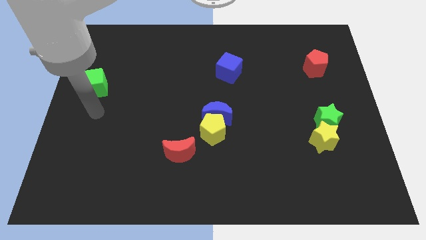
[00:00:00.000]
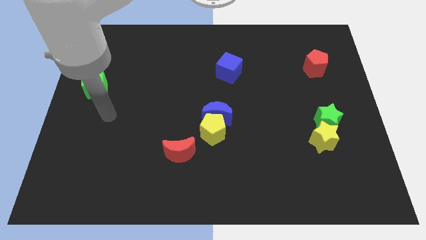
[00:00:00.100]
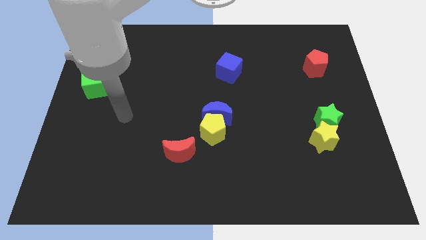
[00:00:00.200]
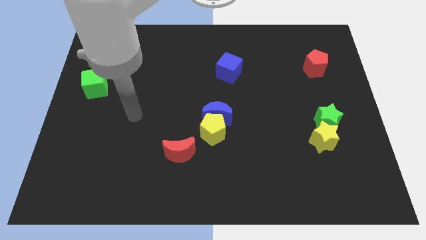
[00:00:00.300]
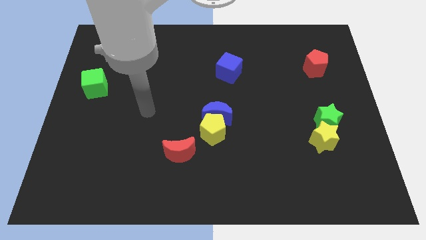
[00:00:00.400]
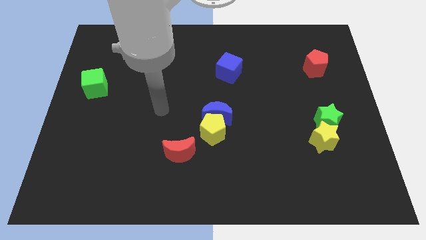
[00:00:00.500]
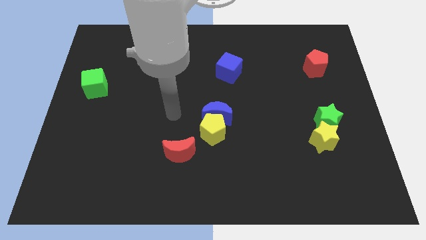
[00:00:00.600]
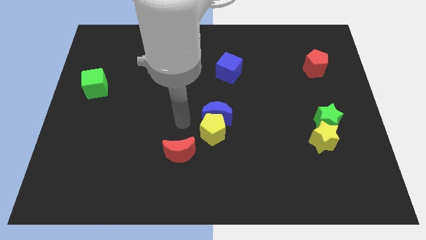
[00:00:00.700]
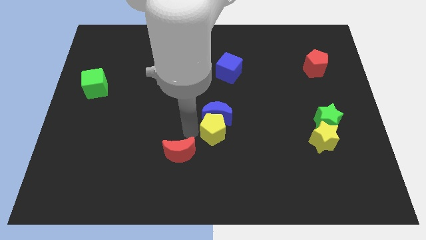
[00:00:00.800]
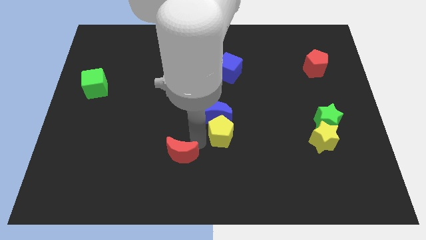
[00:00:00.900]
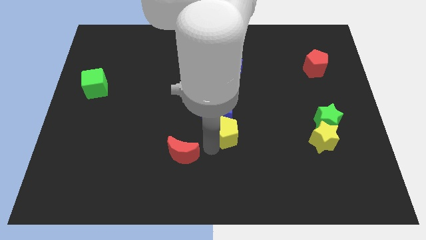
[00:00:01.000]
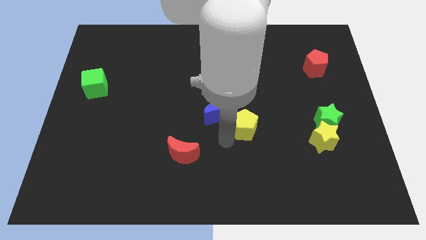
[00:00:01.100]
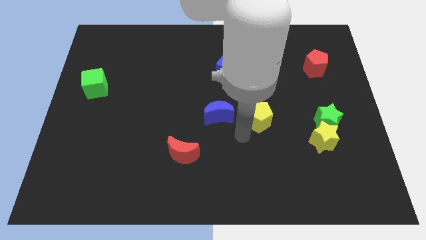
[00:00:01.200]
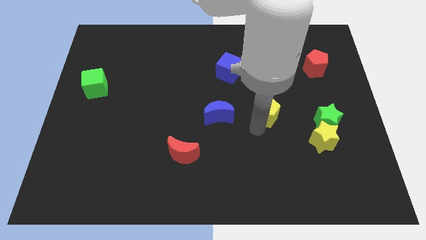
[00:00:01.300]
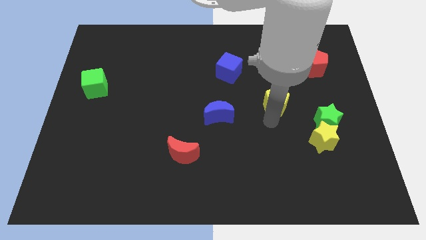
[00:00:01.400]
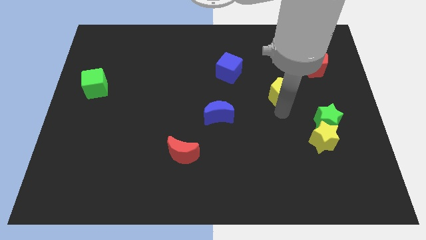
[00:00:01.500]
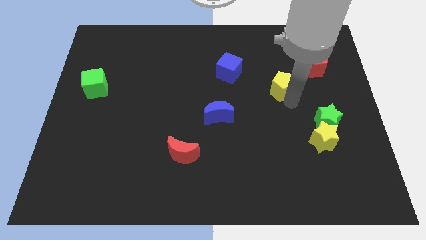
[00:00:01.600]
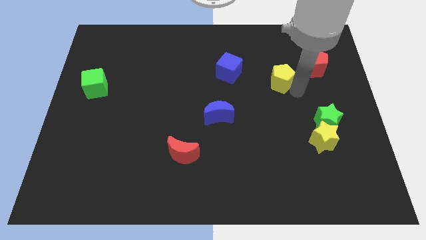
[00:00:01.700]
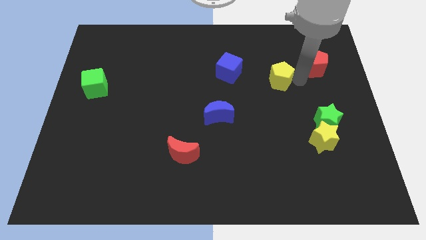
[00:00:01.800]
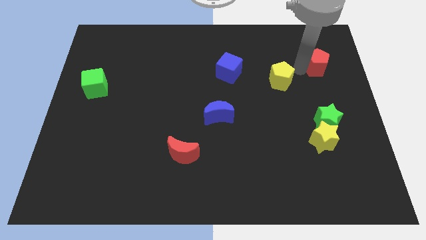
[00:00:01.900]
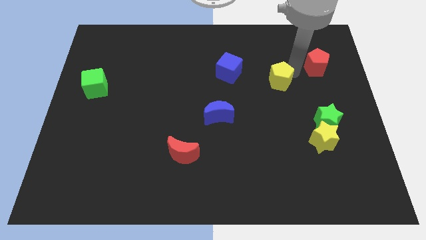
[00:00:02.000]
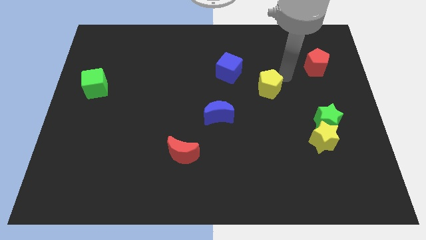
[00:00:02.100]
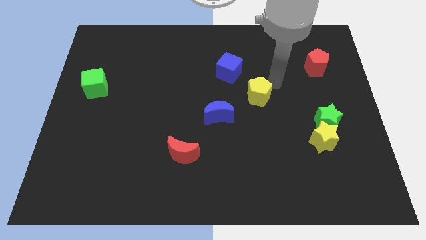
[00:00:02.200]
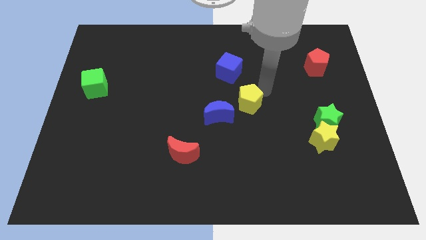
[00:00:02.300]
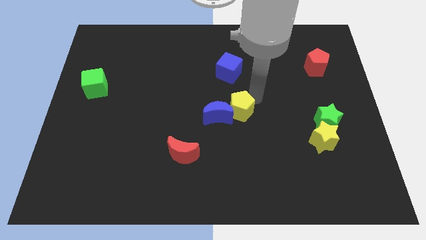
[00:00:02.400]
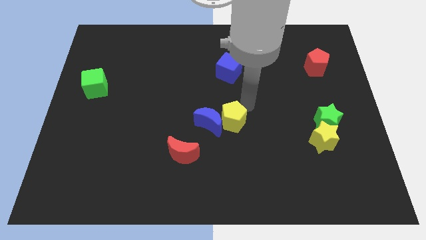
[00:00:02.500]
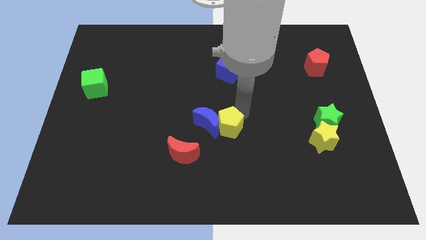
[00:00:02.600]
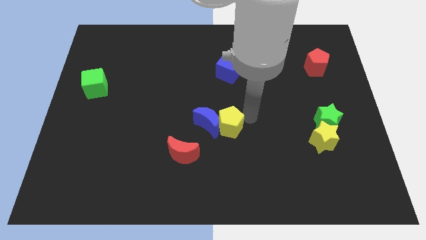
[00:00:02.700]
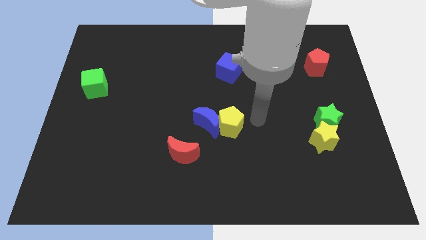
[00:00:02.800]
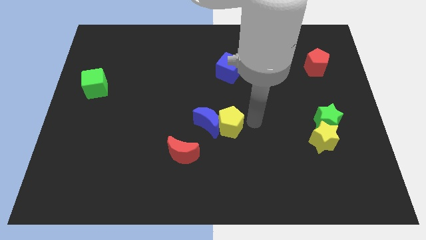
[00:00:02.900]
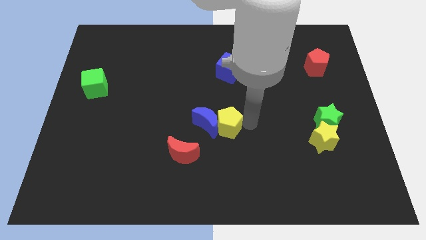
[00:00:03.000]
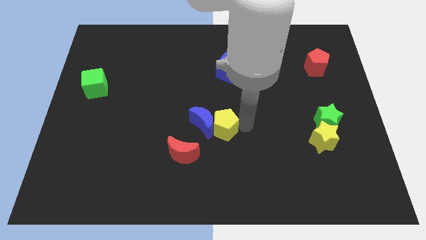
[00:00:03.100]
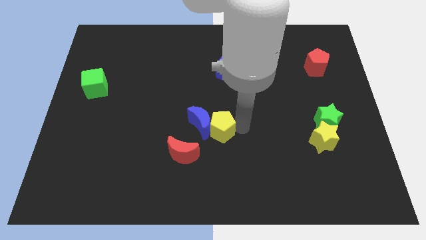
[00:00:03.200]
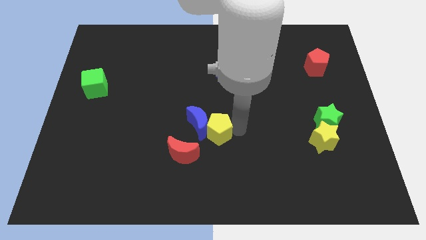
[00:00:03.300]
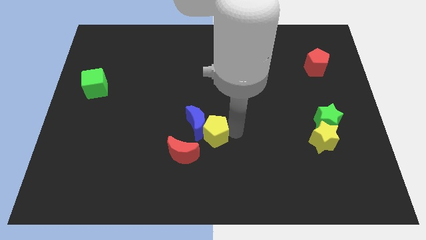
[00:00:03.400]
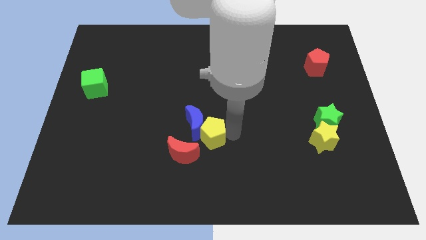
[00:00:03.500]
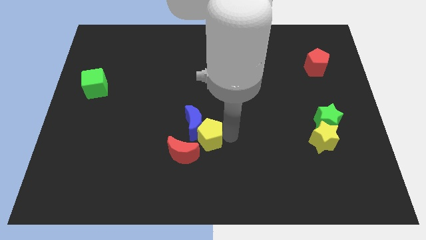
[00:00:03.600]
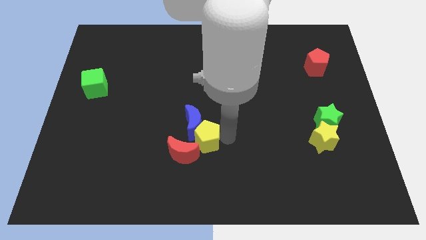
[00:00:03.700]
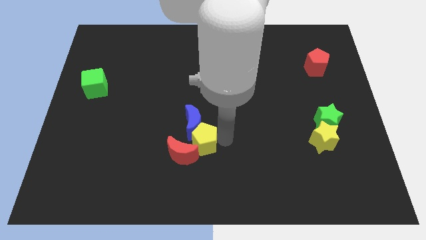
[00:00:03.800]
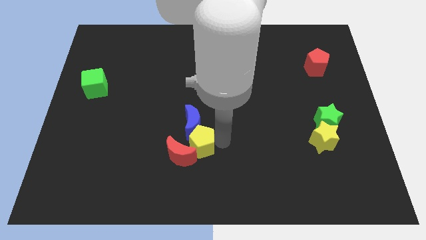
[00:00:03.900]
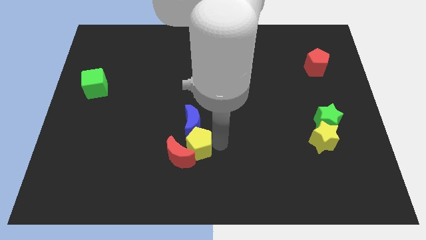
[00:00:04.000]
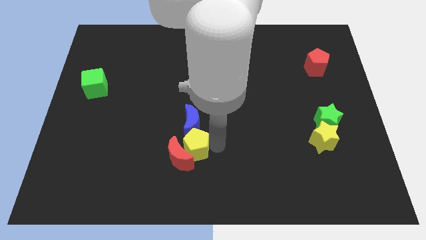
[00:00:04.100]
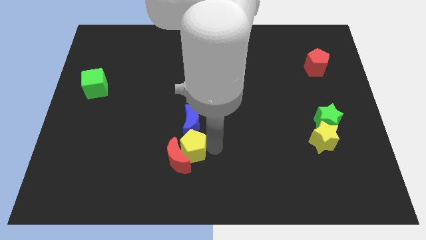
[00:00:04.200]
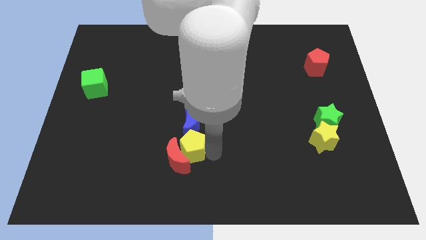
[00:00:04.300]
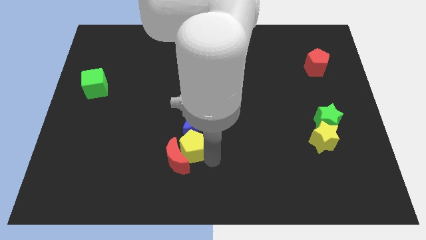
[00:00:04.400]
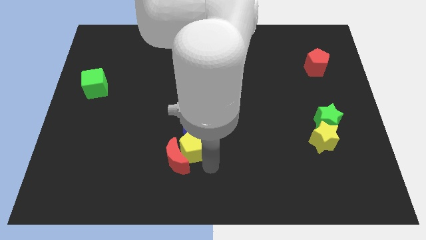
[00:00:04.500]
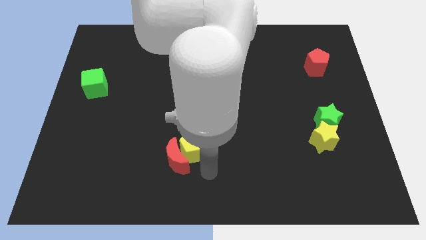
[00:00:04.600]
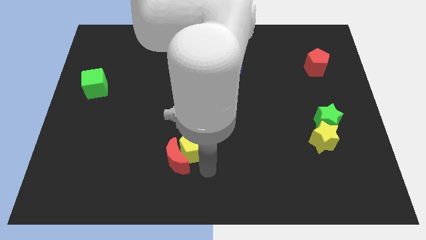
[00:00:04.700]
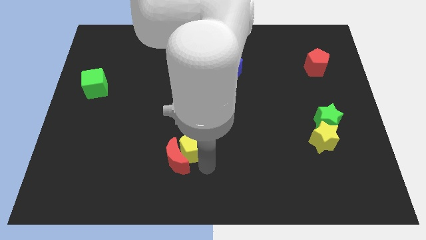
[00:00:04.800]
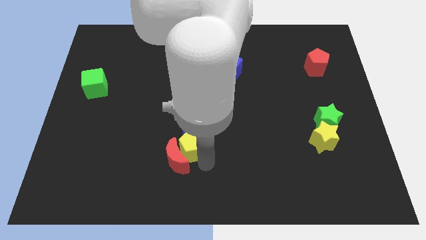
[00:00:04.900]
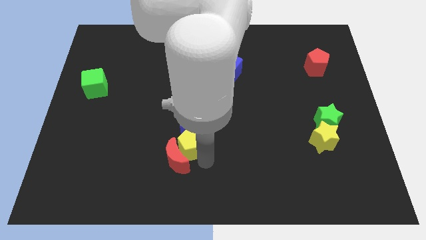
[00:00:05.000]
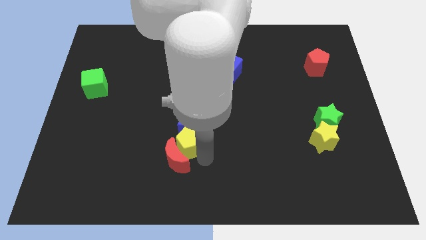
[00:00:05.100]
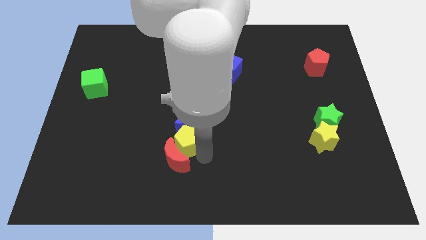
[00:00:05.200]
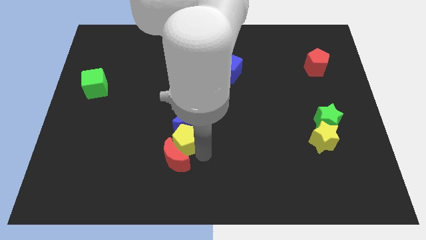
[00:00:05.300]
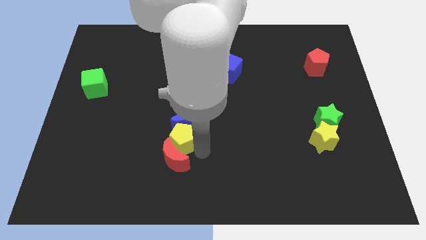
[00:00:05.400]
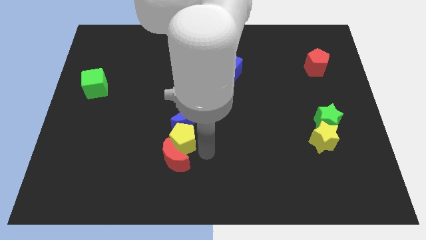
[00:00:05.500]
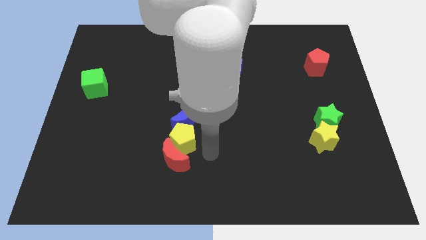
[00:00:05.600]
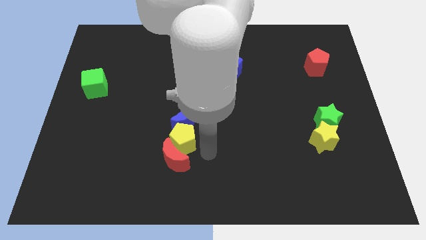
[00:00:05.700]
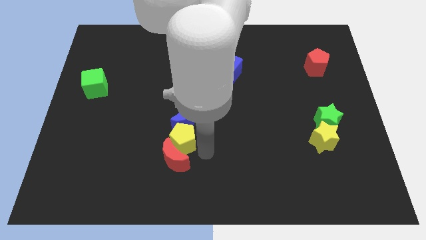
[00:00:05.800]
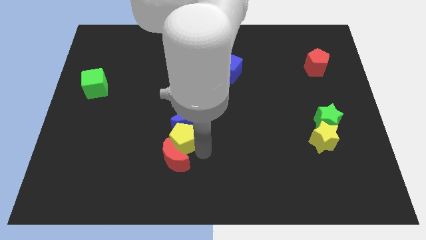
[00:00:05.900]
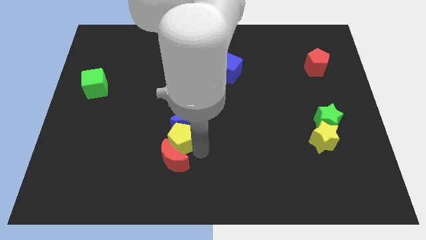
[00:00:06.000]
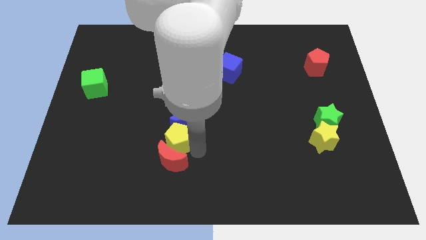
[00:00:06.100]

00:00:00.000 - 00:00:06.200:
push the yellow pentagon somewhat left

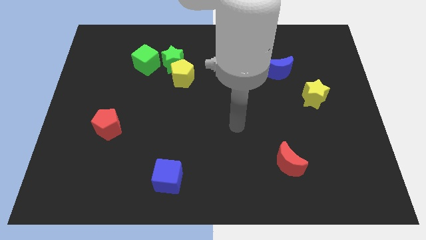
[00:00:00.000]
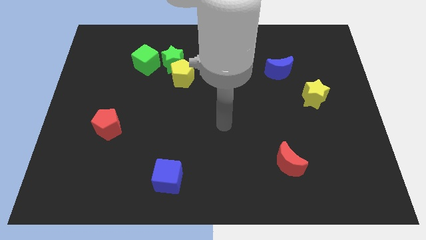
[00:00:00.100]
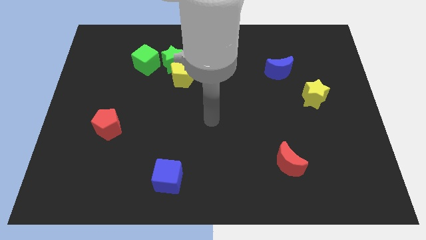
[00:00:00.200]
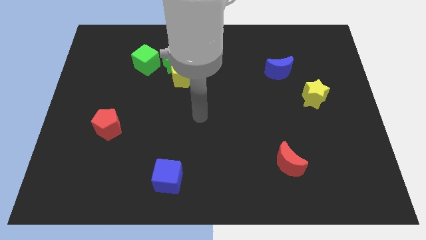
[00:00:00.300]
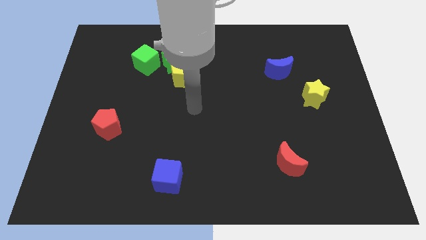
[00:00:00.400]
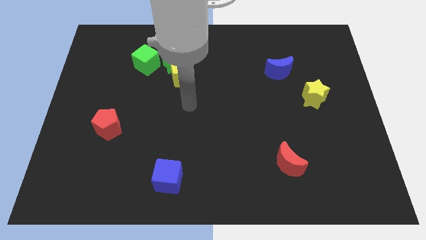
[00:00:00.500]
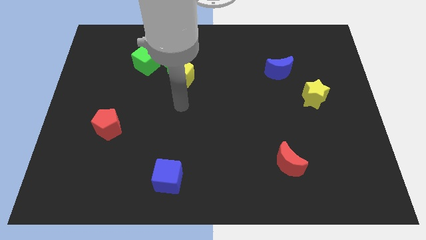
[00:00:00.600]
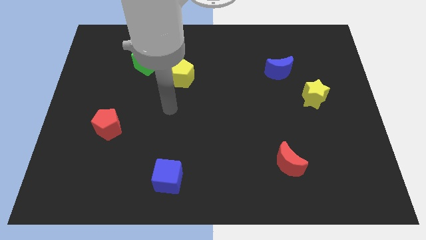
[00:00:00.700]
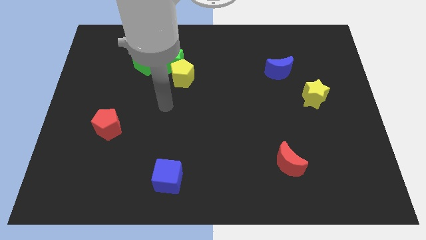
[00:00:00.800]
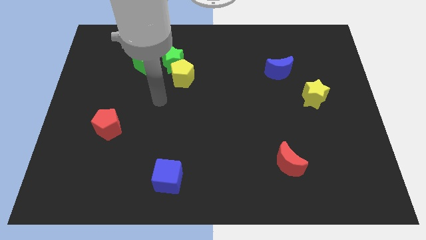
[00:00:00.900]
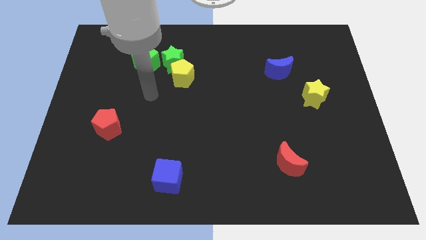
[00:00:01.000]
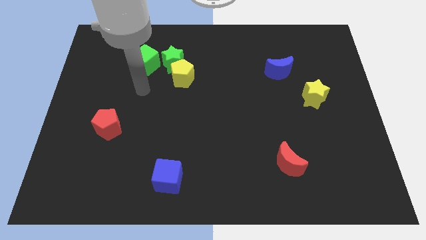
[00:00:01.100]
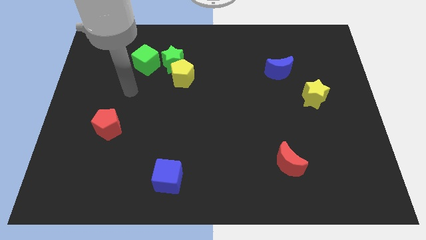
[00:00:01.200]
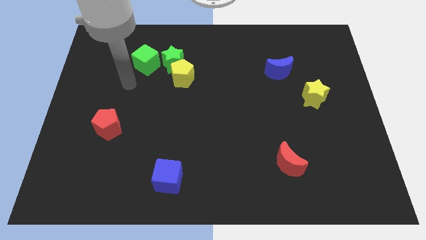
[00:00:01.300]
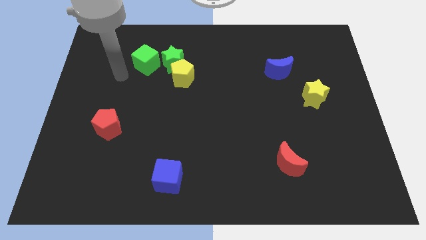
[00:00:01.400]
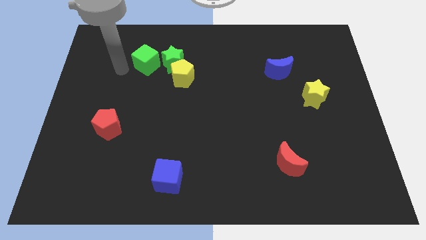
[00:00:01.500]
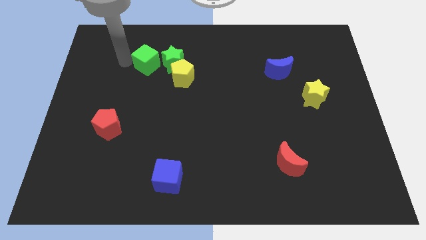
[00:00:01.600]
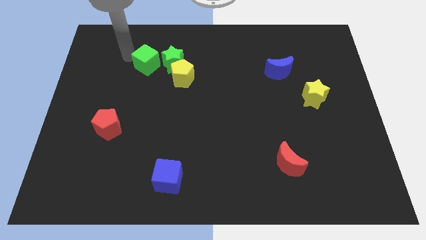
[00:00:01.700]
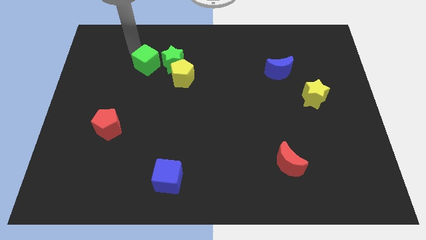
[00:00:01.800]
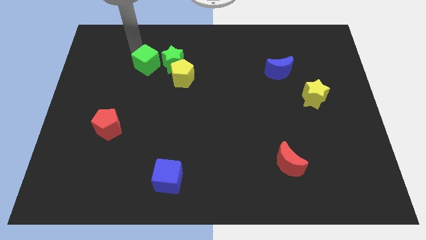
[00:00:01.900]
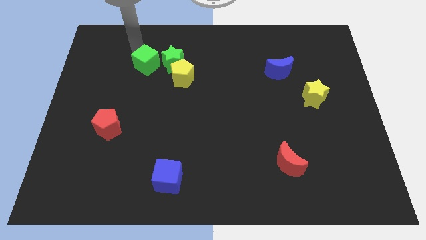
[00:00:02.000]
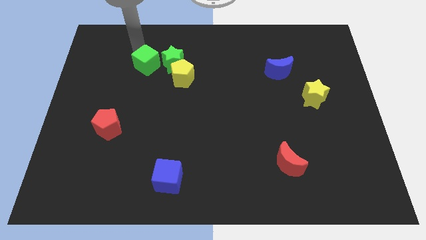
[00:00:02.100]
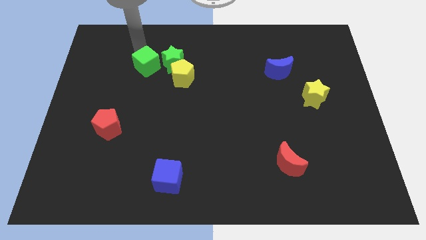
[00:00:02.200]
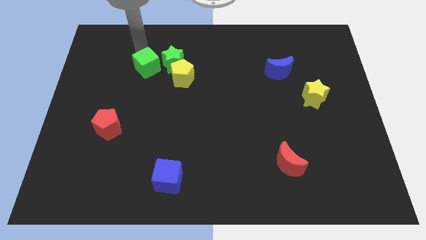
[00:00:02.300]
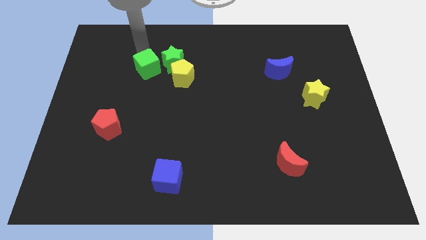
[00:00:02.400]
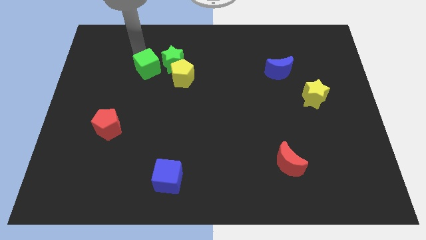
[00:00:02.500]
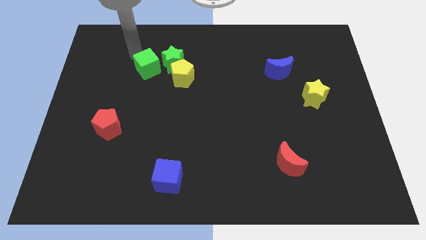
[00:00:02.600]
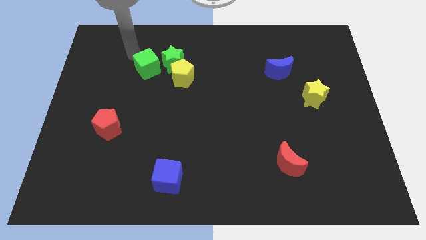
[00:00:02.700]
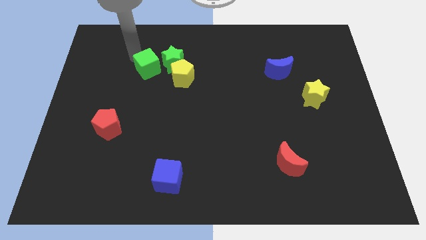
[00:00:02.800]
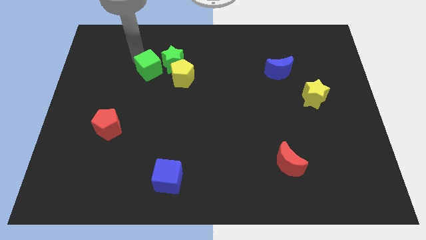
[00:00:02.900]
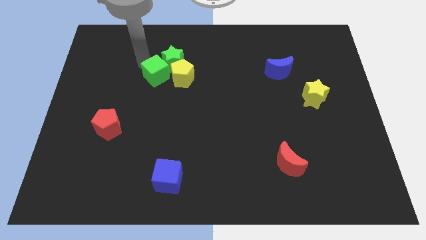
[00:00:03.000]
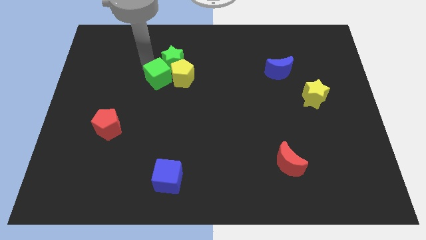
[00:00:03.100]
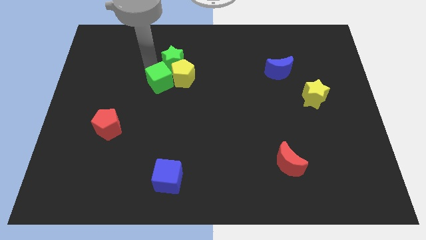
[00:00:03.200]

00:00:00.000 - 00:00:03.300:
move the green cube a little diagonally down and right
